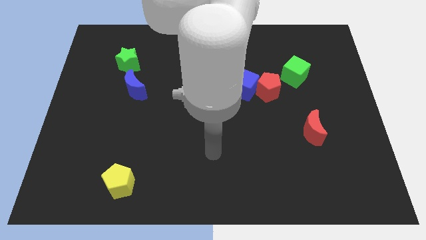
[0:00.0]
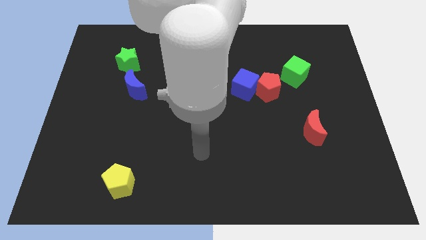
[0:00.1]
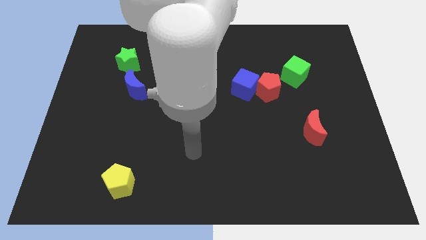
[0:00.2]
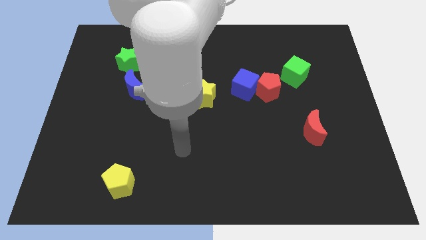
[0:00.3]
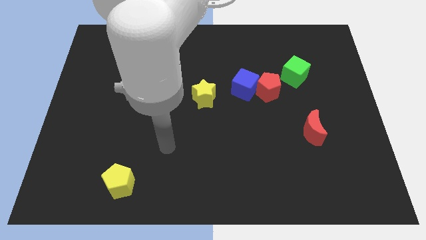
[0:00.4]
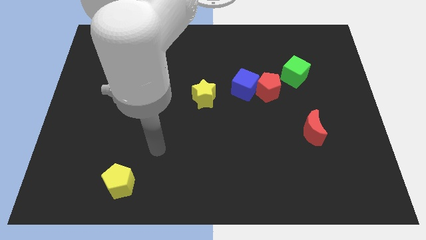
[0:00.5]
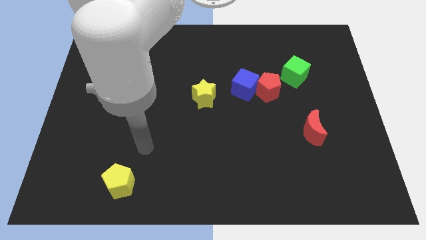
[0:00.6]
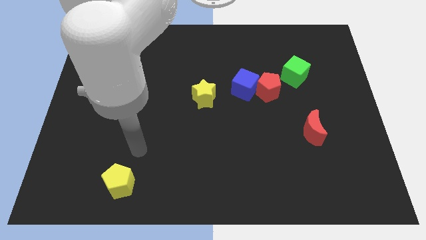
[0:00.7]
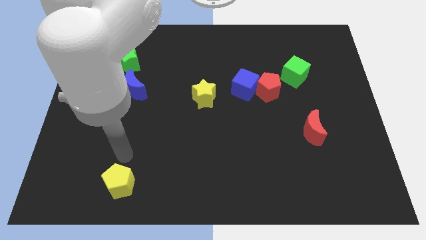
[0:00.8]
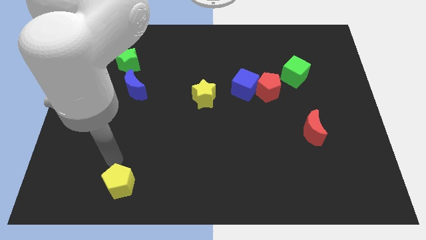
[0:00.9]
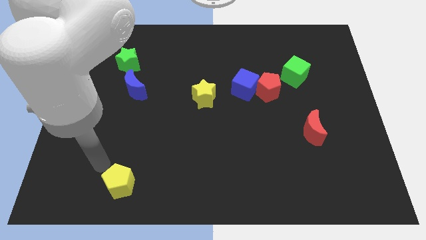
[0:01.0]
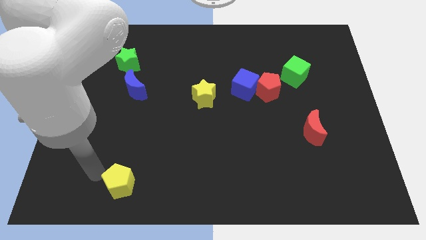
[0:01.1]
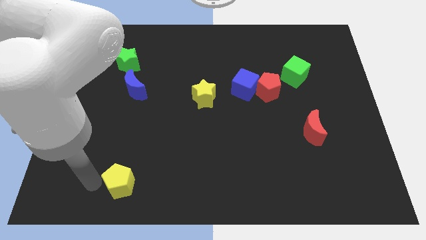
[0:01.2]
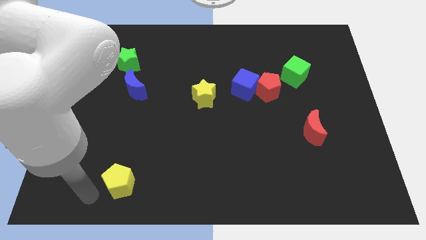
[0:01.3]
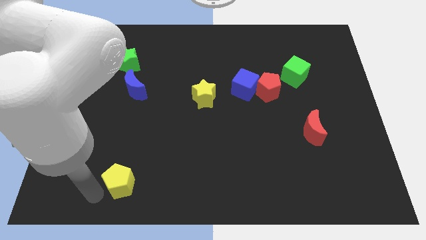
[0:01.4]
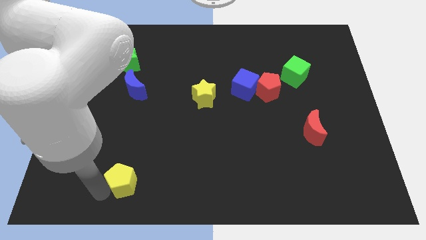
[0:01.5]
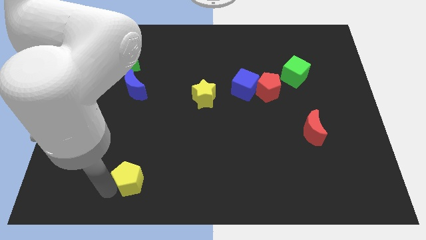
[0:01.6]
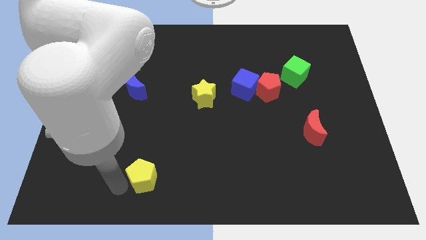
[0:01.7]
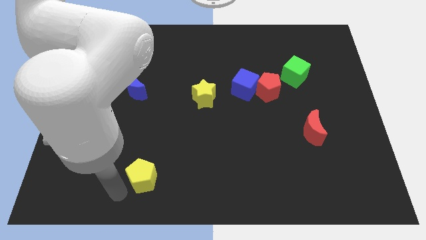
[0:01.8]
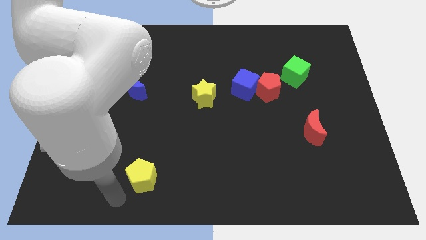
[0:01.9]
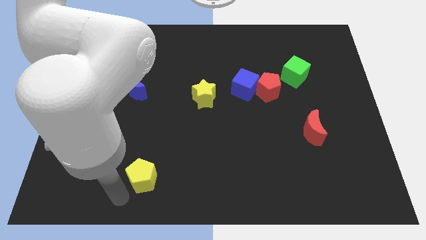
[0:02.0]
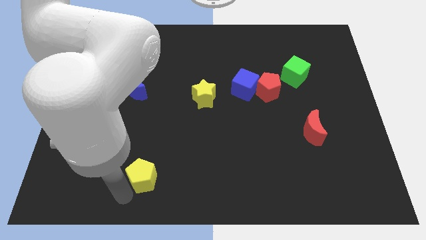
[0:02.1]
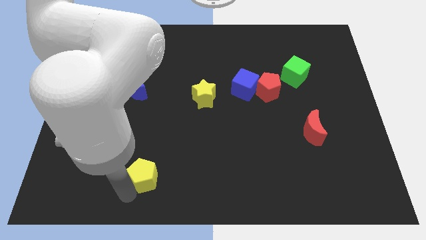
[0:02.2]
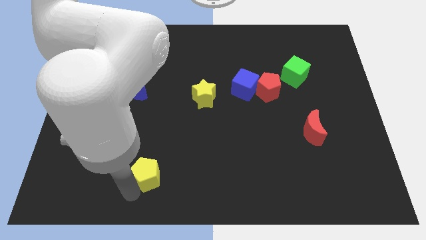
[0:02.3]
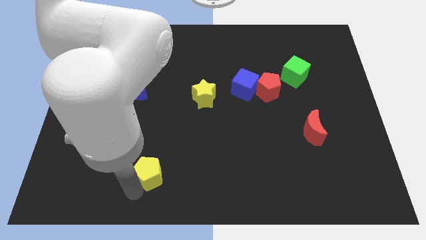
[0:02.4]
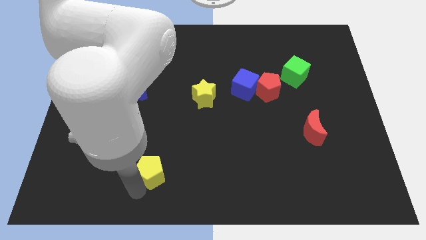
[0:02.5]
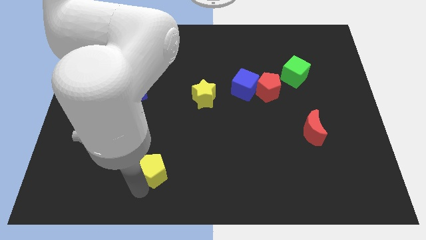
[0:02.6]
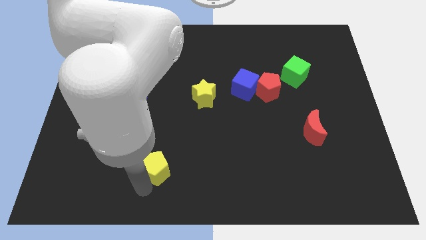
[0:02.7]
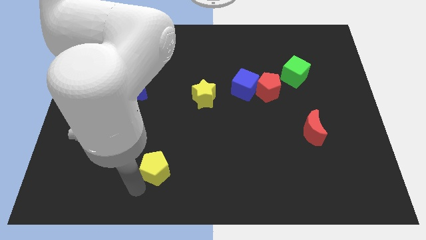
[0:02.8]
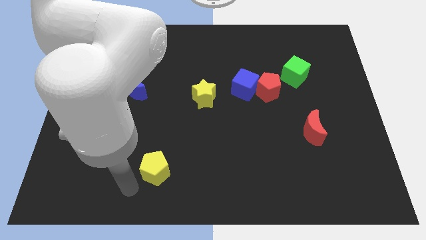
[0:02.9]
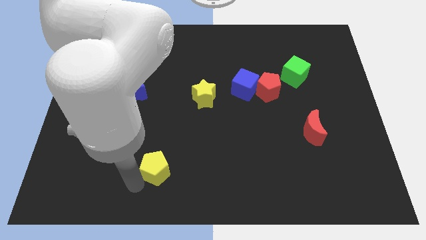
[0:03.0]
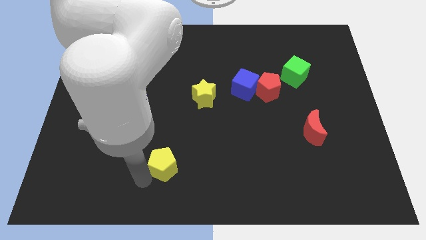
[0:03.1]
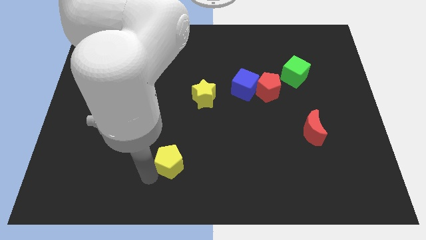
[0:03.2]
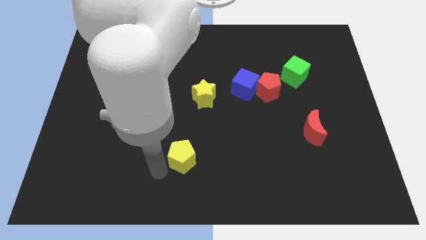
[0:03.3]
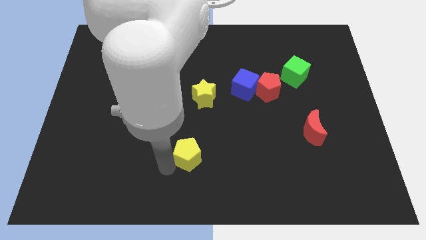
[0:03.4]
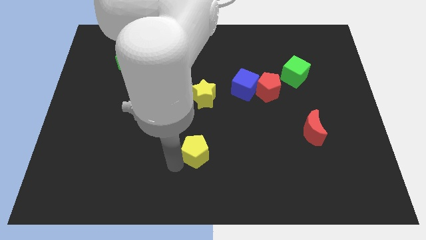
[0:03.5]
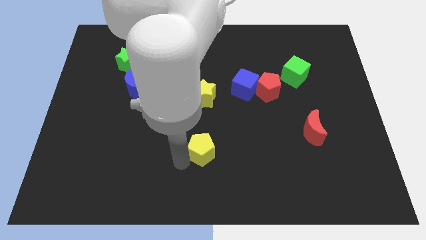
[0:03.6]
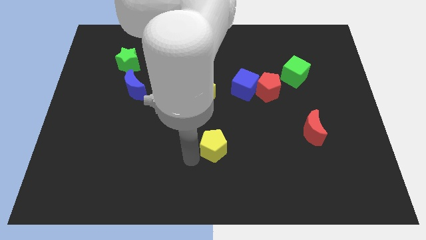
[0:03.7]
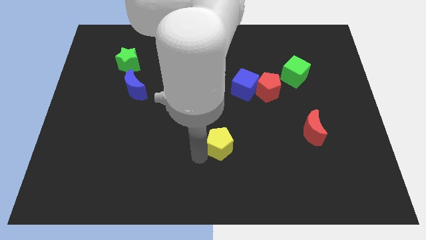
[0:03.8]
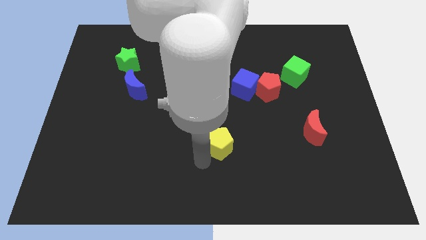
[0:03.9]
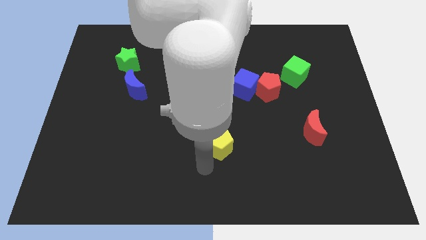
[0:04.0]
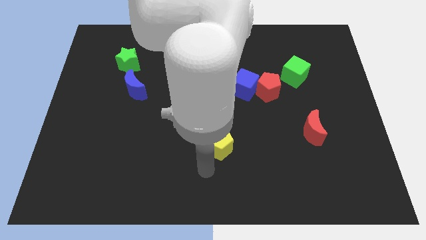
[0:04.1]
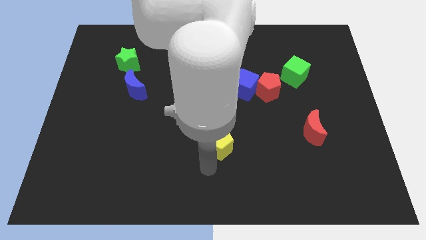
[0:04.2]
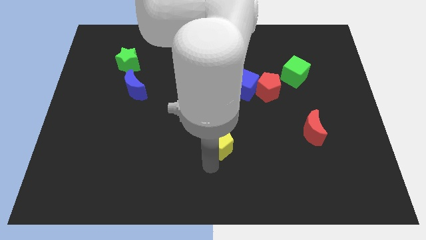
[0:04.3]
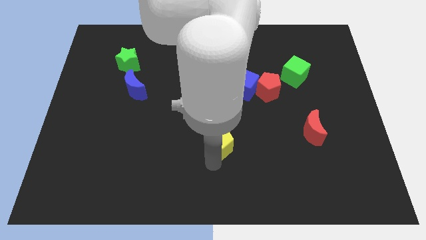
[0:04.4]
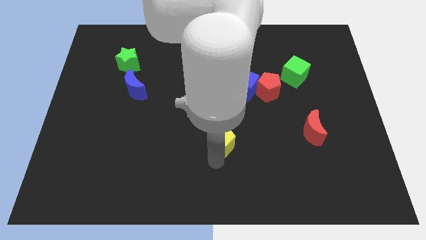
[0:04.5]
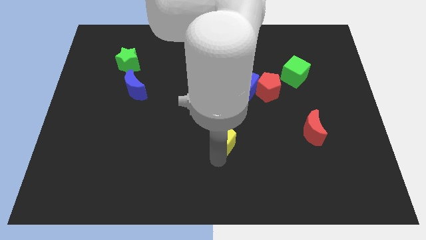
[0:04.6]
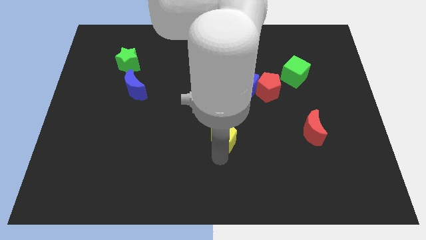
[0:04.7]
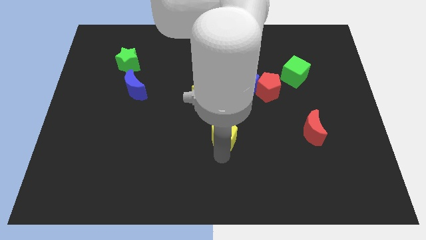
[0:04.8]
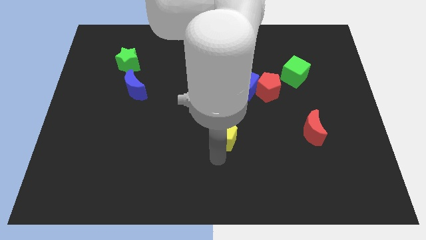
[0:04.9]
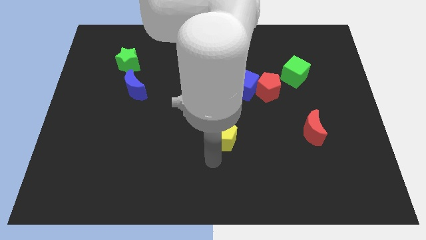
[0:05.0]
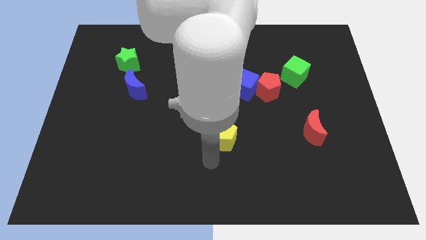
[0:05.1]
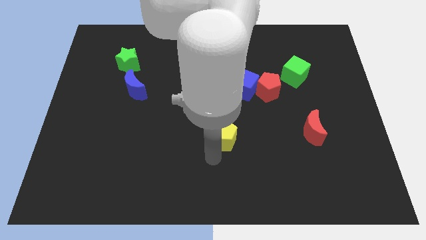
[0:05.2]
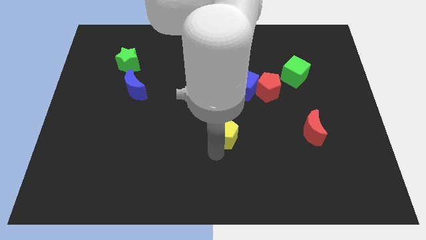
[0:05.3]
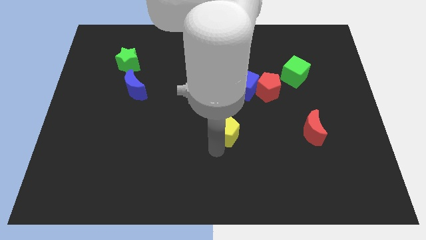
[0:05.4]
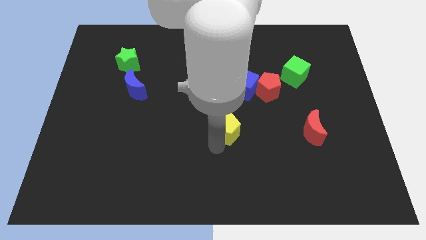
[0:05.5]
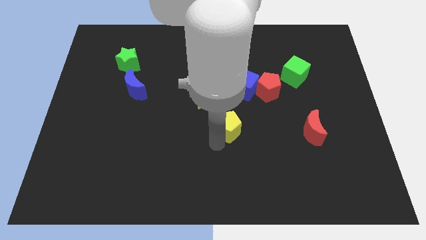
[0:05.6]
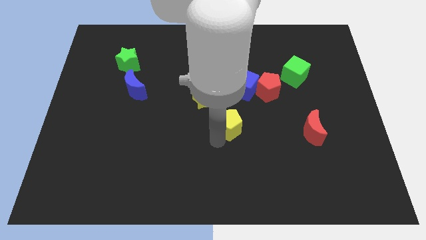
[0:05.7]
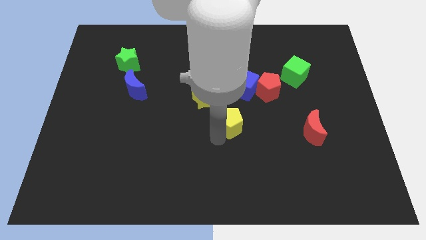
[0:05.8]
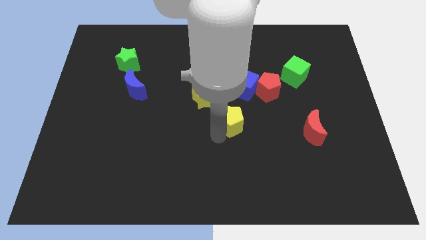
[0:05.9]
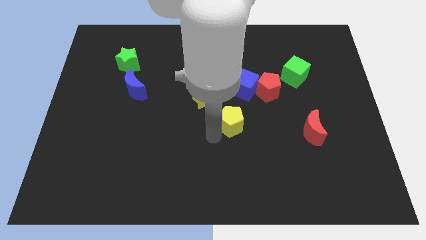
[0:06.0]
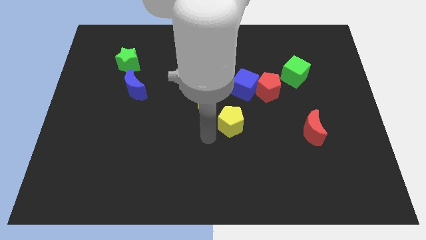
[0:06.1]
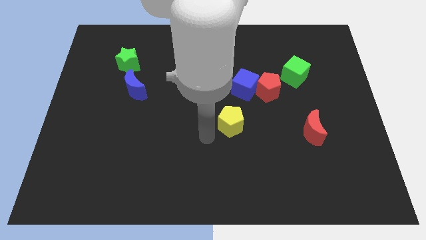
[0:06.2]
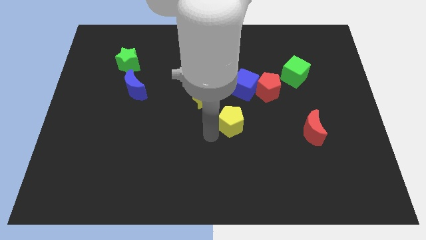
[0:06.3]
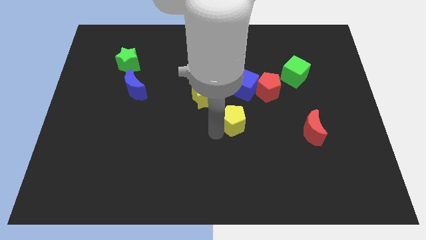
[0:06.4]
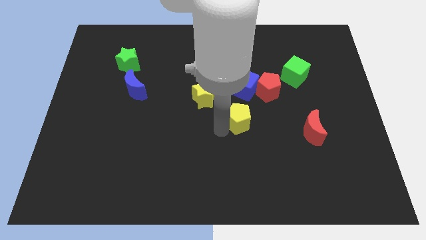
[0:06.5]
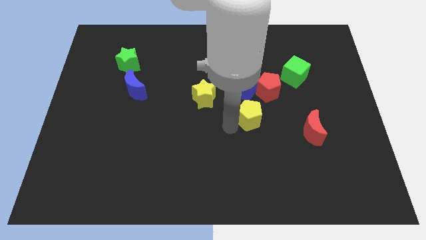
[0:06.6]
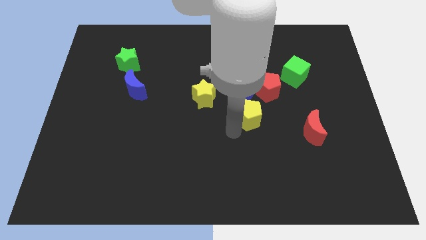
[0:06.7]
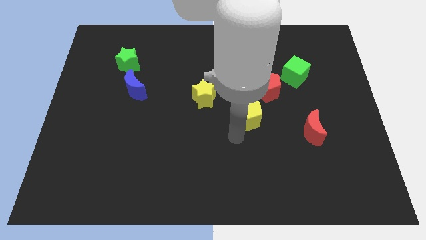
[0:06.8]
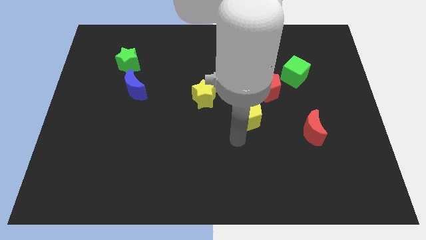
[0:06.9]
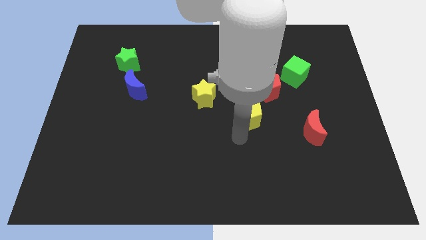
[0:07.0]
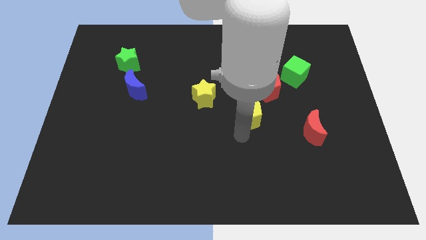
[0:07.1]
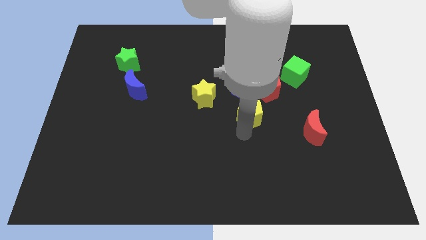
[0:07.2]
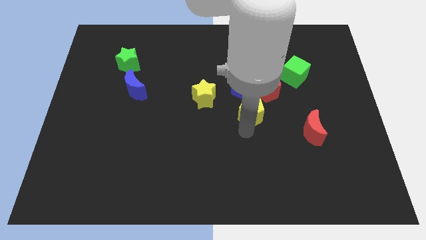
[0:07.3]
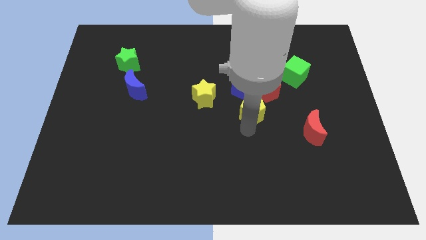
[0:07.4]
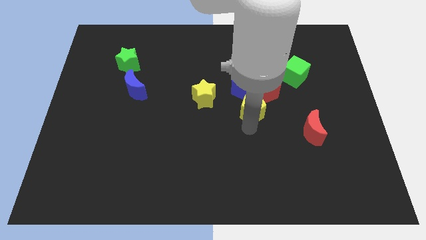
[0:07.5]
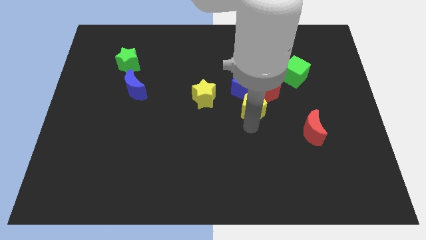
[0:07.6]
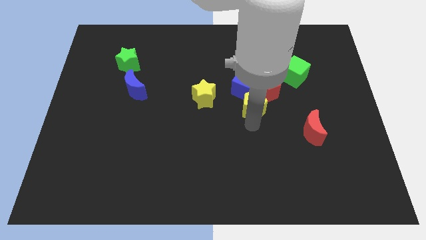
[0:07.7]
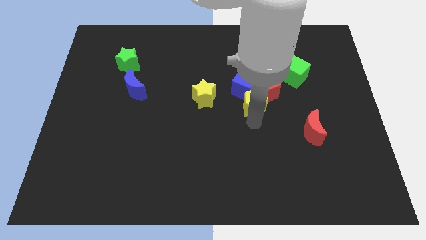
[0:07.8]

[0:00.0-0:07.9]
slide the yellow pentagon towards the red pentagon
